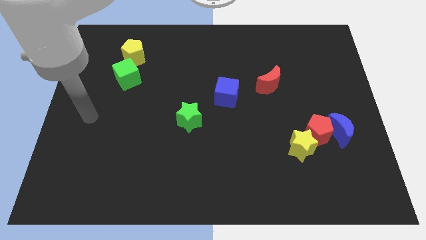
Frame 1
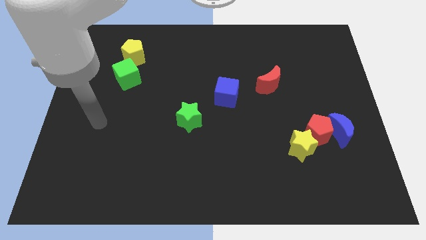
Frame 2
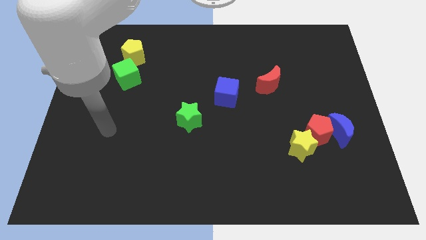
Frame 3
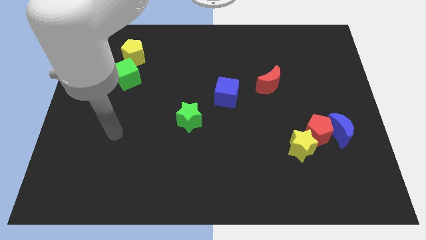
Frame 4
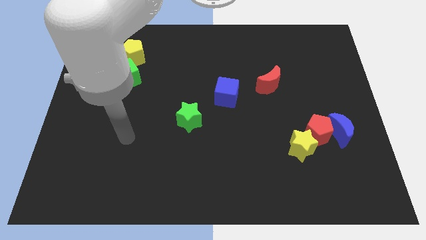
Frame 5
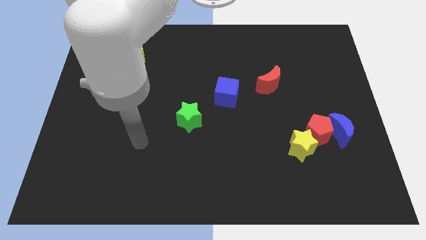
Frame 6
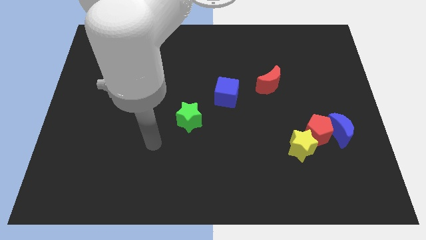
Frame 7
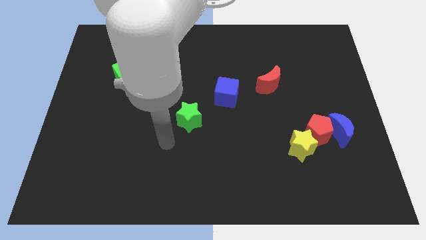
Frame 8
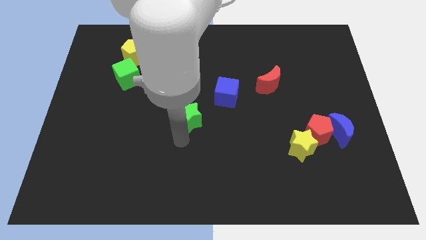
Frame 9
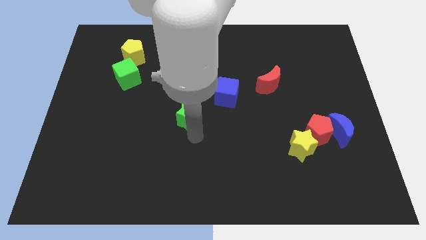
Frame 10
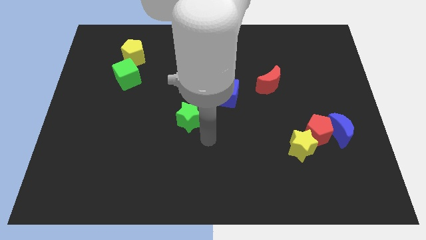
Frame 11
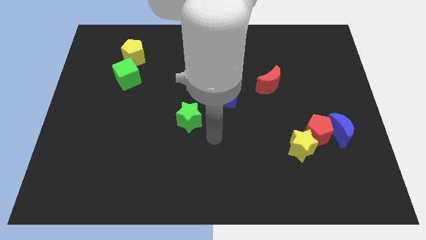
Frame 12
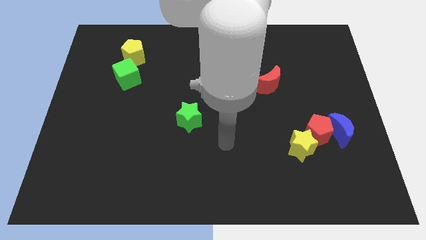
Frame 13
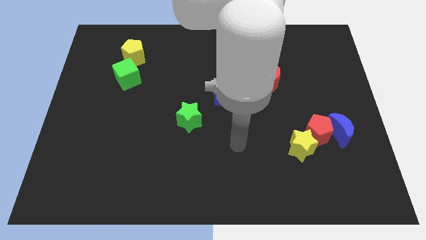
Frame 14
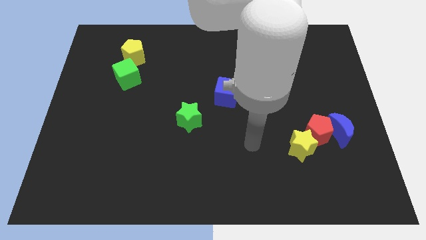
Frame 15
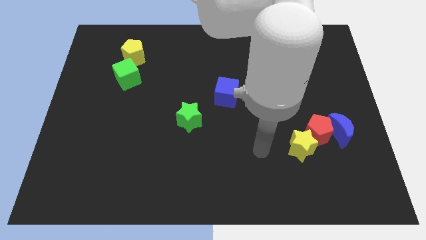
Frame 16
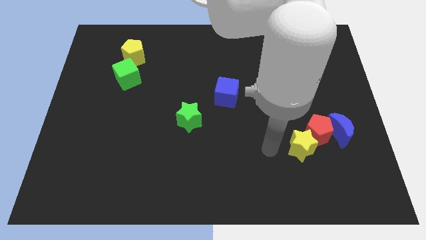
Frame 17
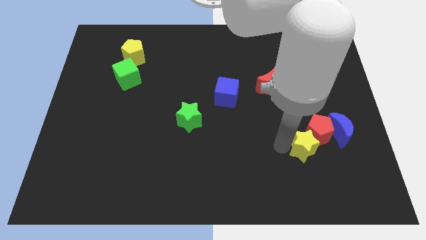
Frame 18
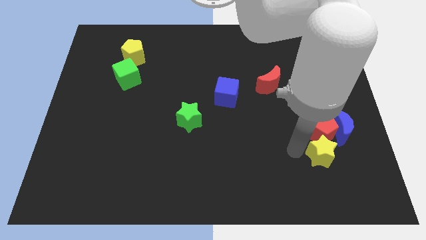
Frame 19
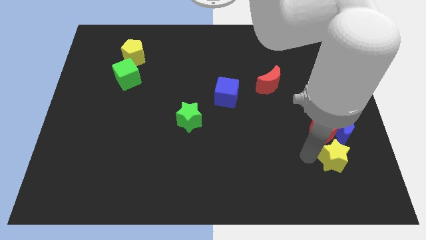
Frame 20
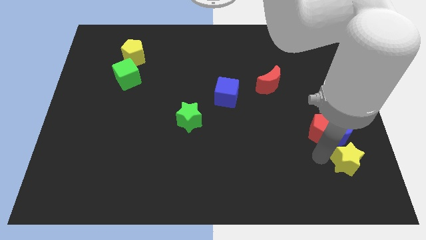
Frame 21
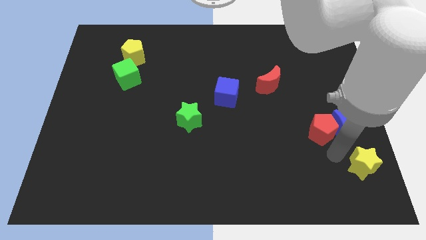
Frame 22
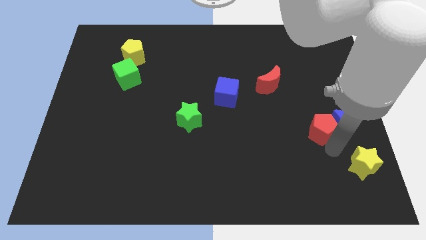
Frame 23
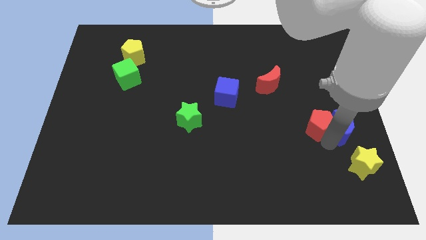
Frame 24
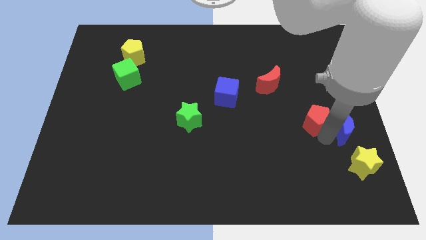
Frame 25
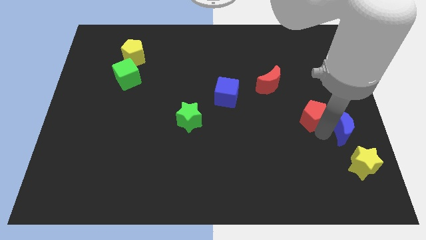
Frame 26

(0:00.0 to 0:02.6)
separate the red pentagon from the blue moon and yellow star

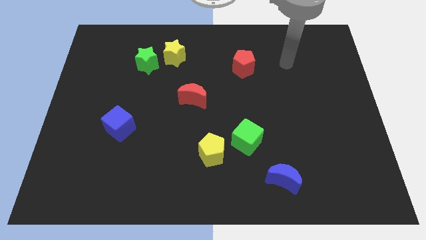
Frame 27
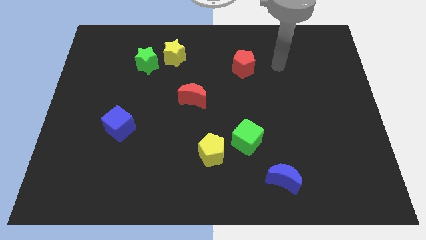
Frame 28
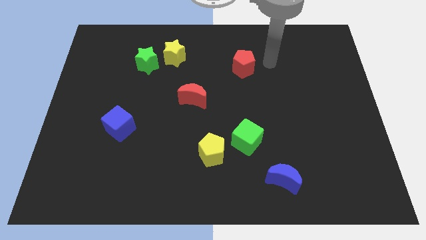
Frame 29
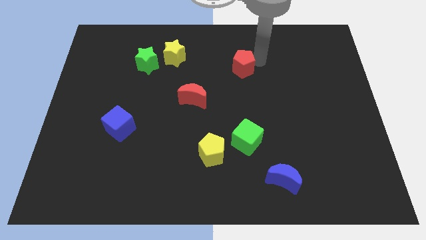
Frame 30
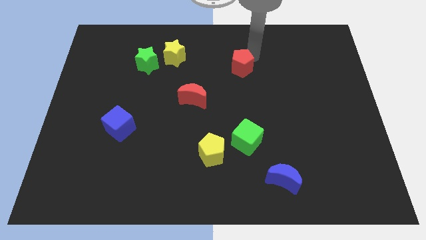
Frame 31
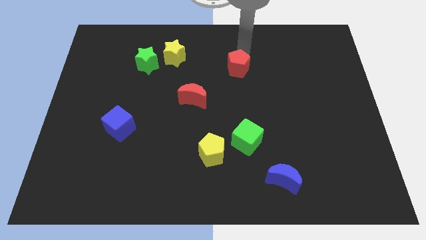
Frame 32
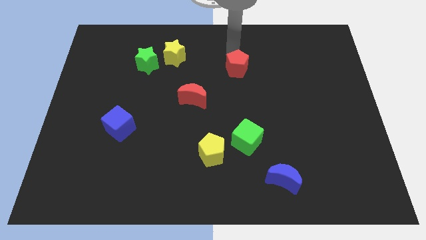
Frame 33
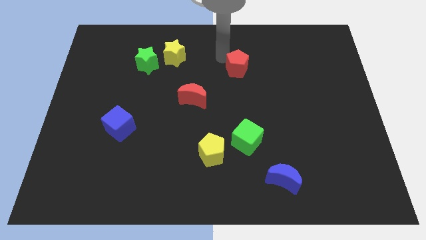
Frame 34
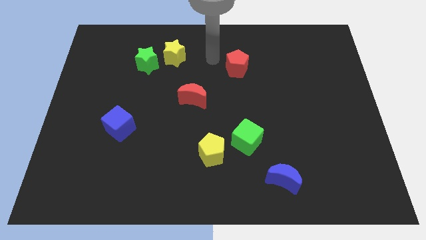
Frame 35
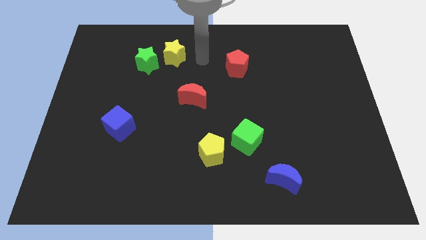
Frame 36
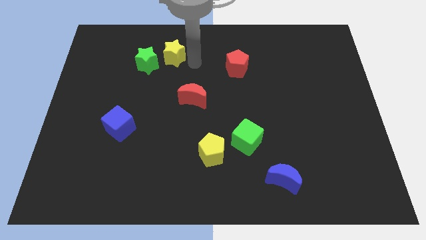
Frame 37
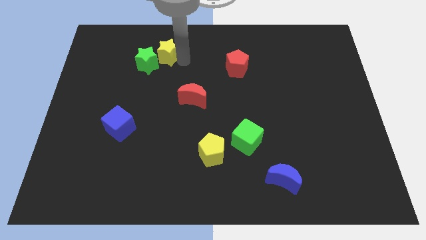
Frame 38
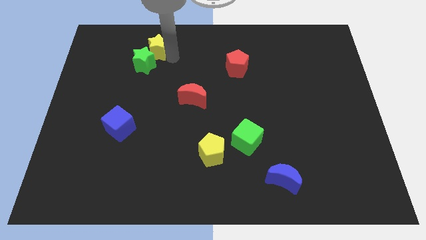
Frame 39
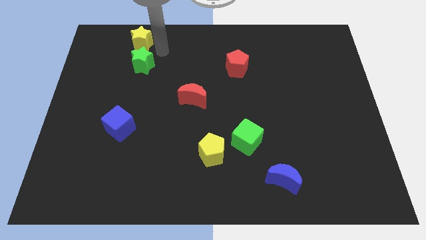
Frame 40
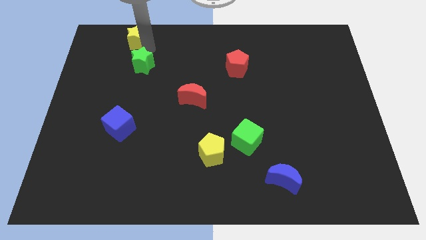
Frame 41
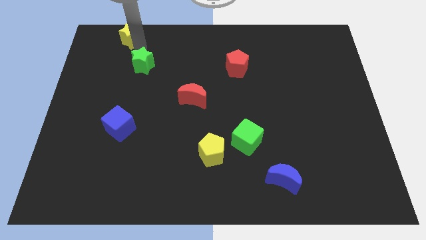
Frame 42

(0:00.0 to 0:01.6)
separate the green star from the yellow star

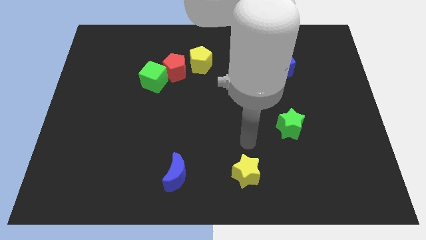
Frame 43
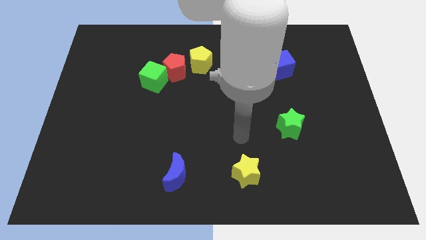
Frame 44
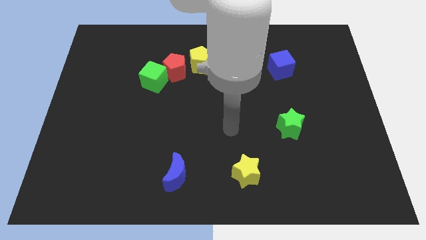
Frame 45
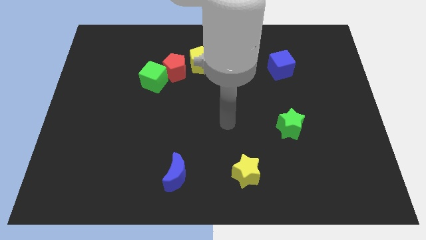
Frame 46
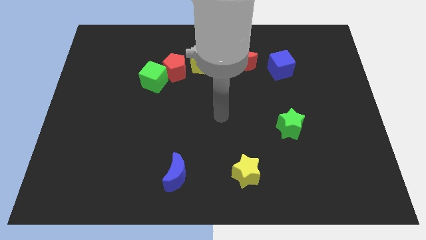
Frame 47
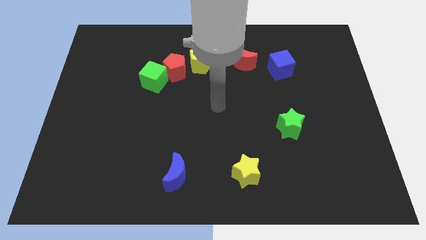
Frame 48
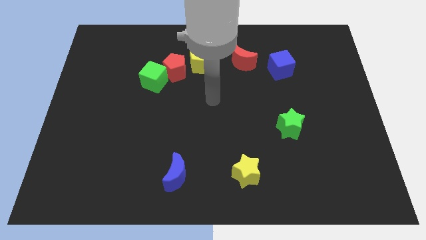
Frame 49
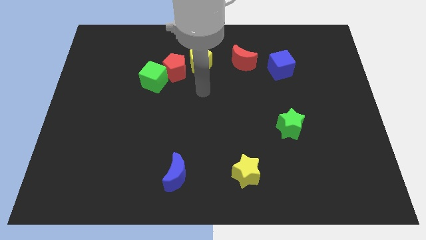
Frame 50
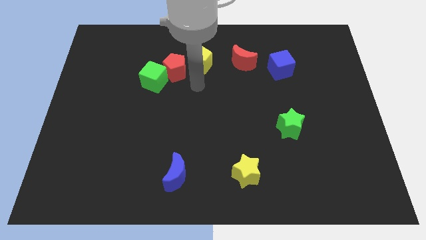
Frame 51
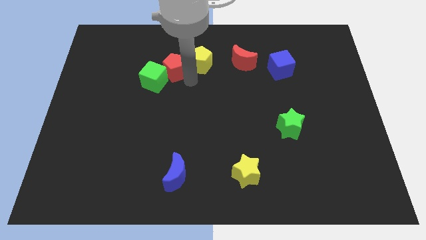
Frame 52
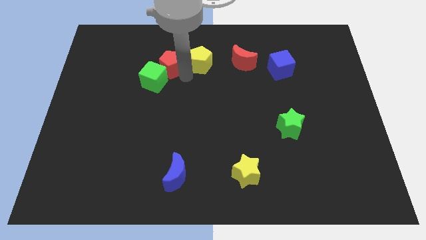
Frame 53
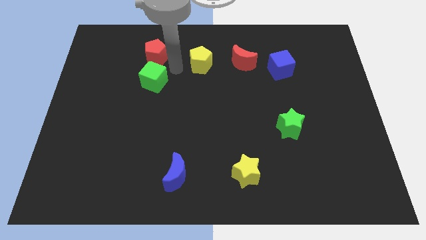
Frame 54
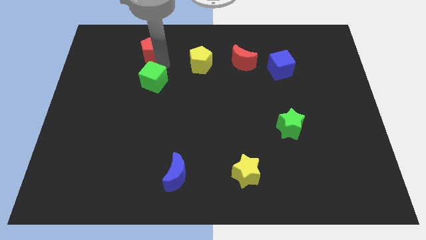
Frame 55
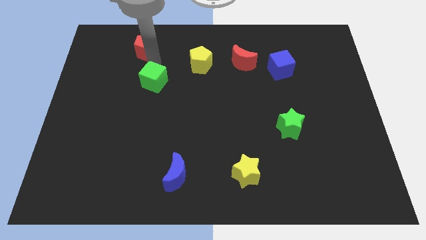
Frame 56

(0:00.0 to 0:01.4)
separate the green cube from the red pentagon

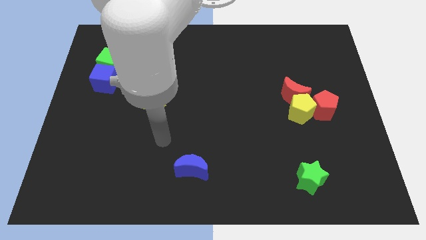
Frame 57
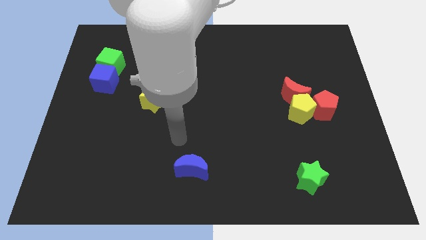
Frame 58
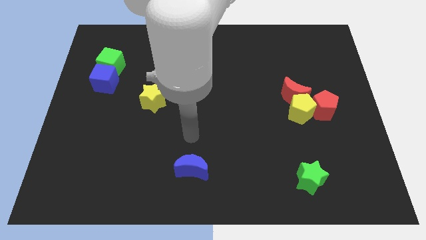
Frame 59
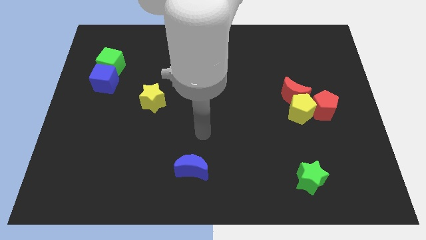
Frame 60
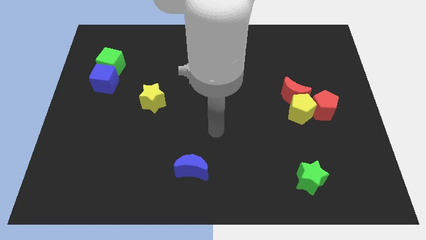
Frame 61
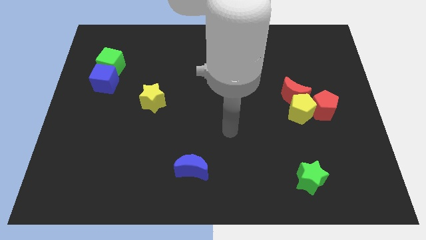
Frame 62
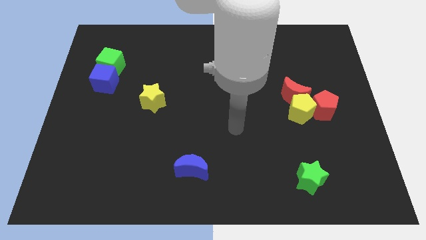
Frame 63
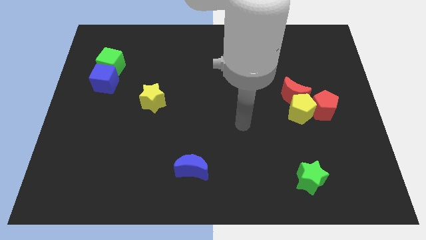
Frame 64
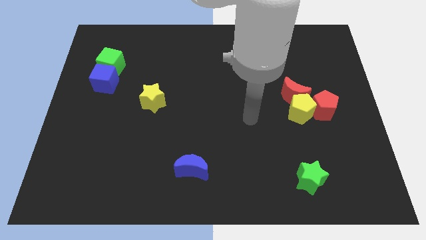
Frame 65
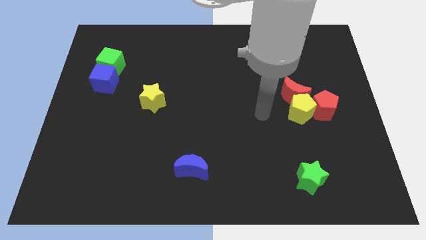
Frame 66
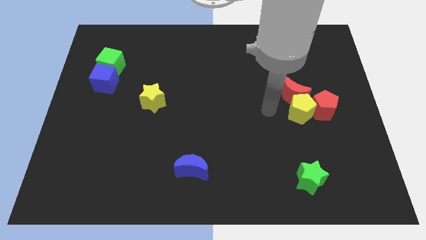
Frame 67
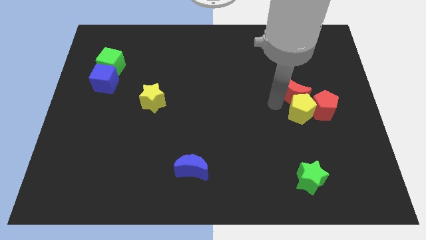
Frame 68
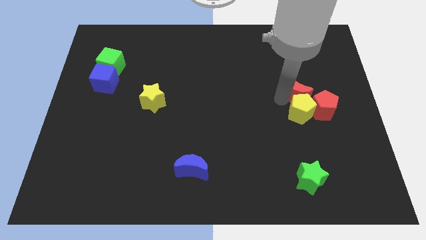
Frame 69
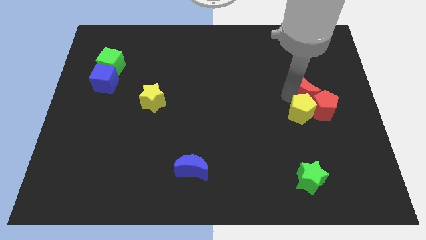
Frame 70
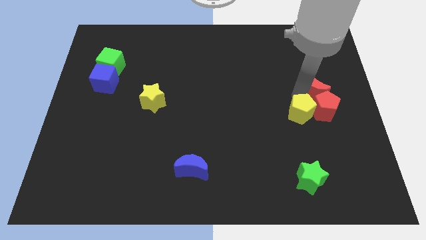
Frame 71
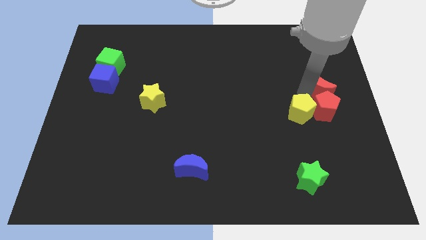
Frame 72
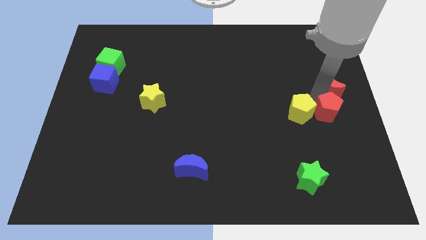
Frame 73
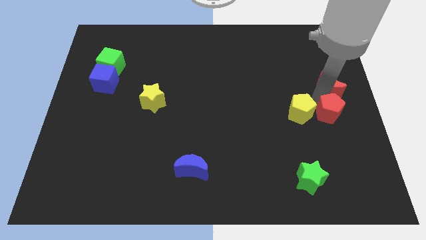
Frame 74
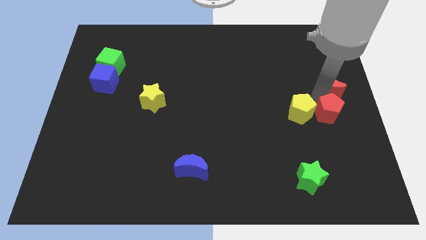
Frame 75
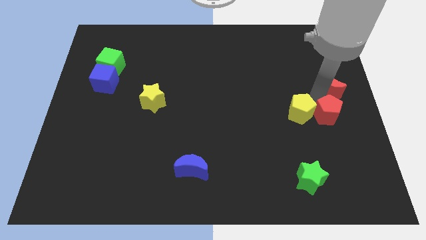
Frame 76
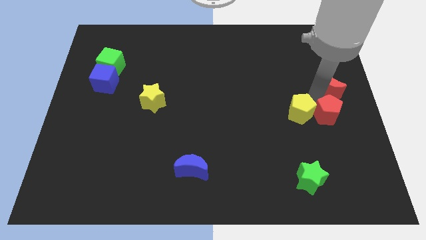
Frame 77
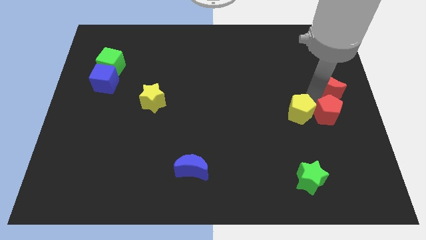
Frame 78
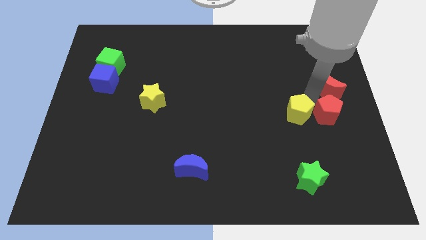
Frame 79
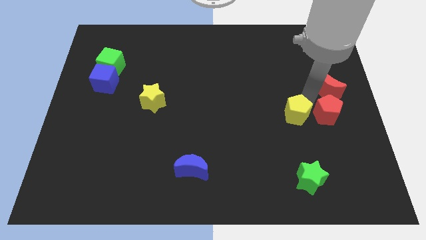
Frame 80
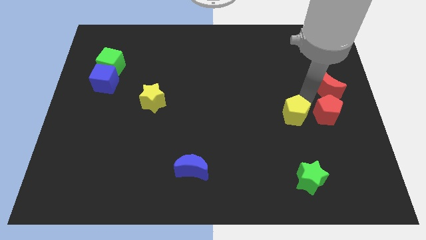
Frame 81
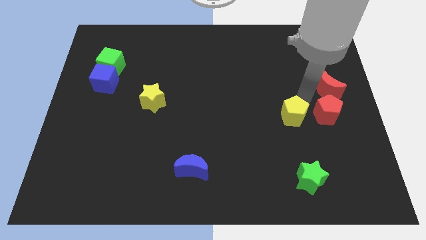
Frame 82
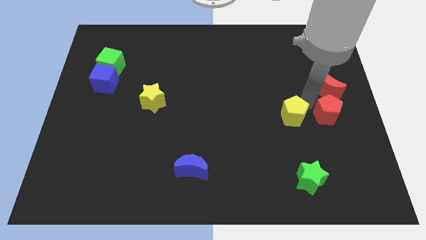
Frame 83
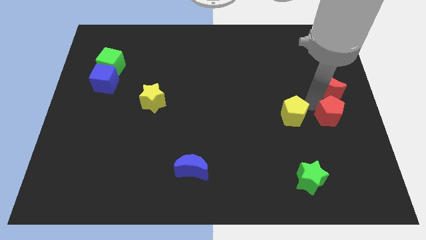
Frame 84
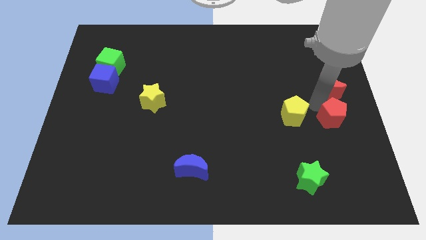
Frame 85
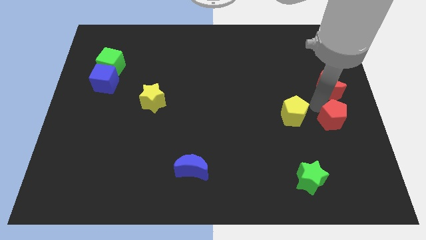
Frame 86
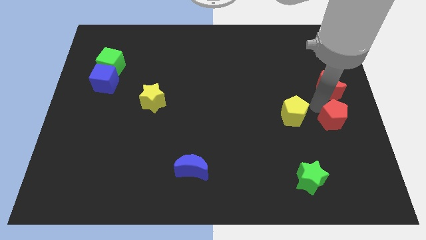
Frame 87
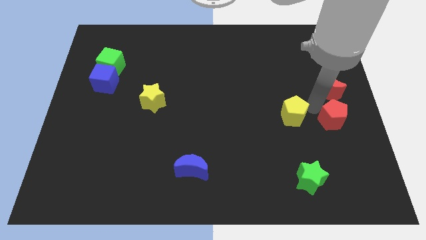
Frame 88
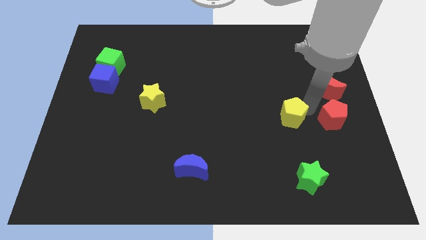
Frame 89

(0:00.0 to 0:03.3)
separate the yellow pentagon from the red moon and red pentagon

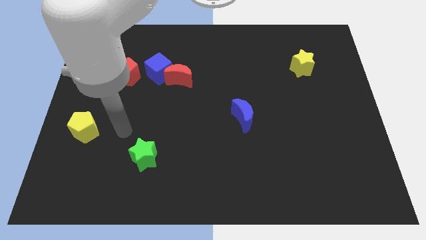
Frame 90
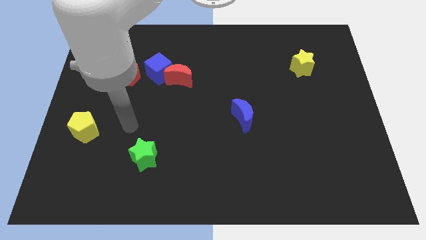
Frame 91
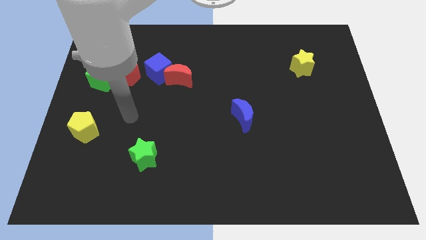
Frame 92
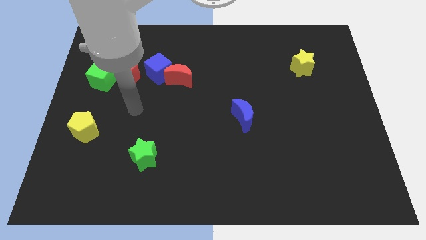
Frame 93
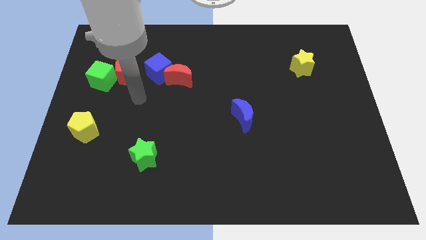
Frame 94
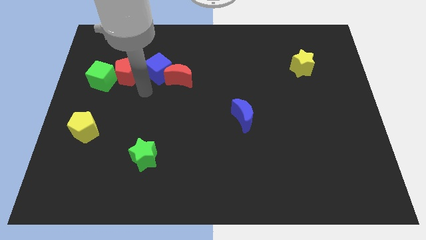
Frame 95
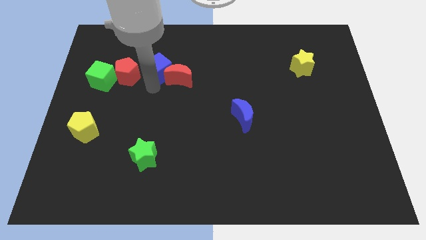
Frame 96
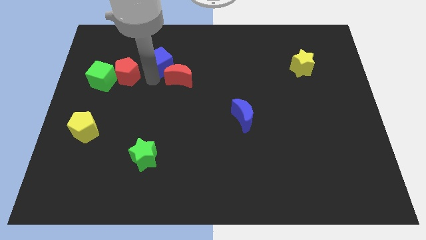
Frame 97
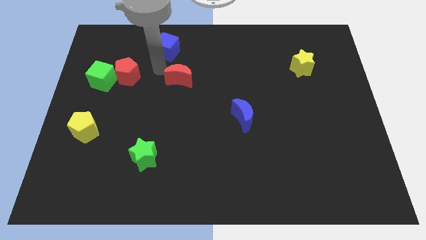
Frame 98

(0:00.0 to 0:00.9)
move the red moon away from the blue cube
